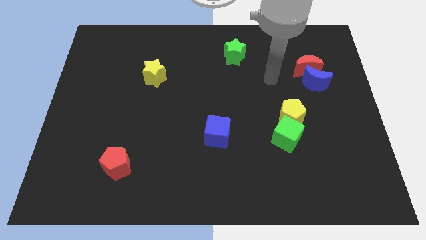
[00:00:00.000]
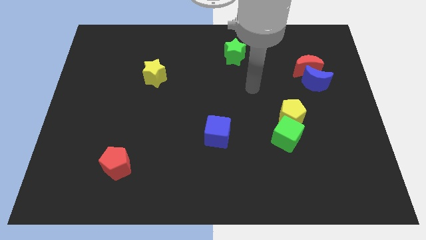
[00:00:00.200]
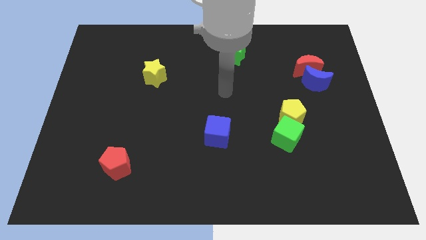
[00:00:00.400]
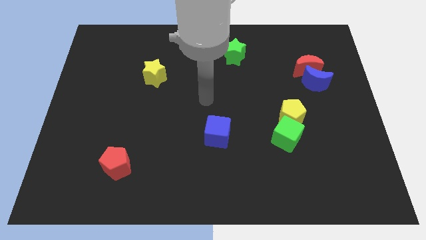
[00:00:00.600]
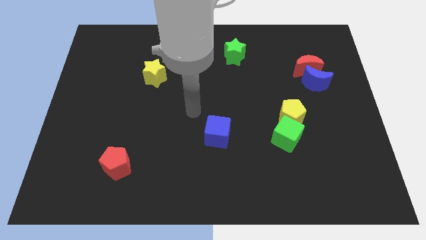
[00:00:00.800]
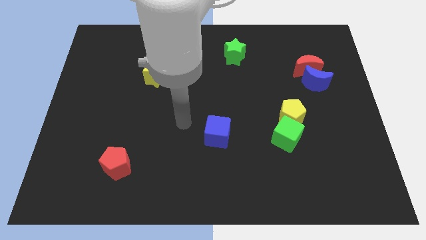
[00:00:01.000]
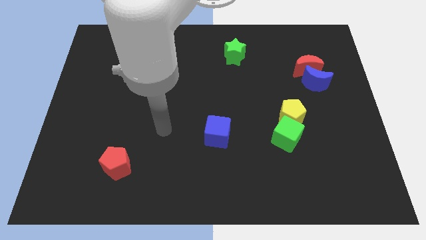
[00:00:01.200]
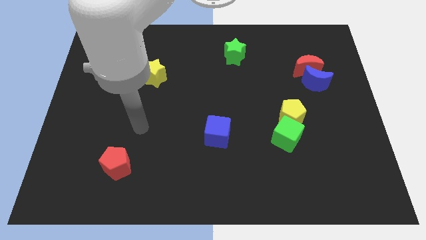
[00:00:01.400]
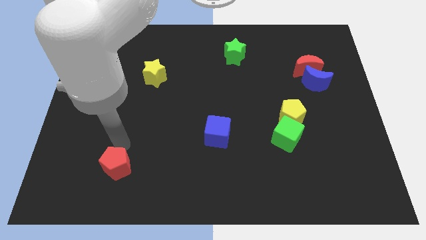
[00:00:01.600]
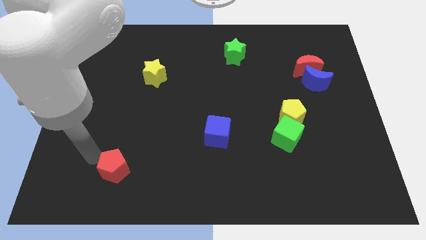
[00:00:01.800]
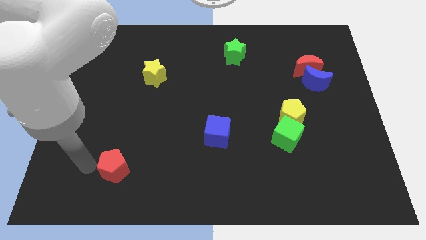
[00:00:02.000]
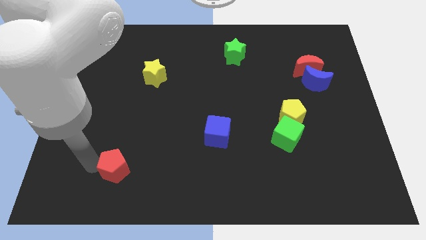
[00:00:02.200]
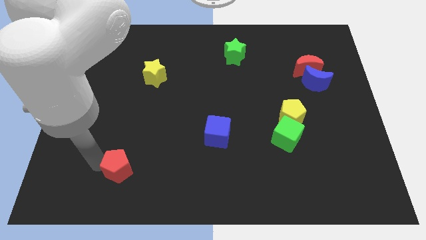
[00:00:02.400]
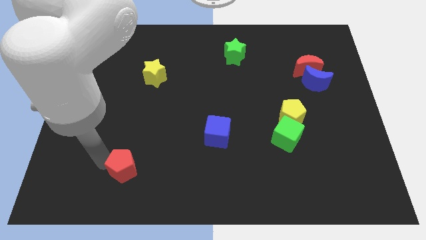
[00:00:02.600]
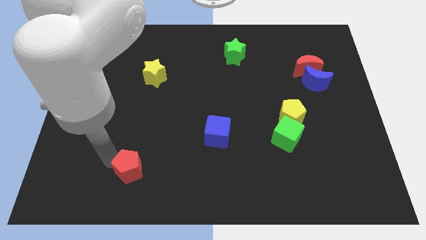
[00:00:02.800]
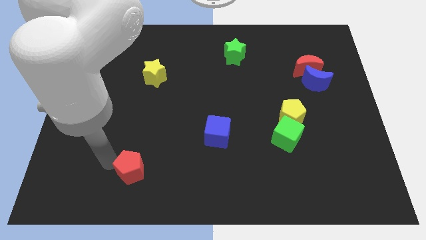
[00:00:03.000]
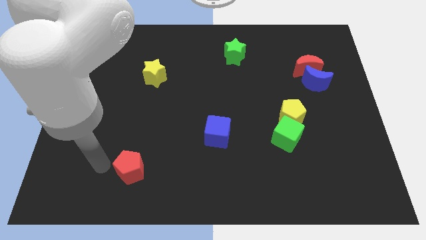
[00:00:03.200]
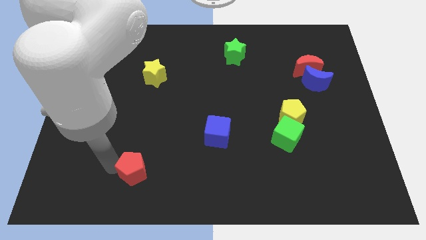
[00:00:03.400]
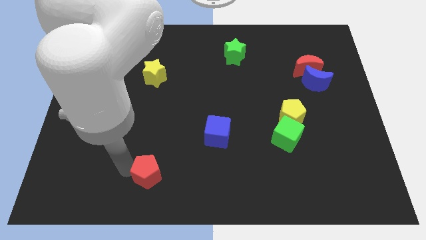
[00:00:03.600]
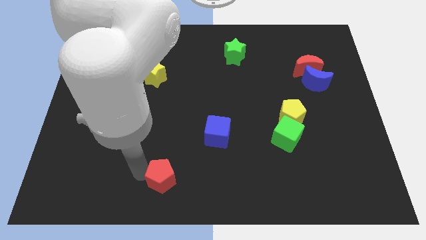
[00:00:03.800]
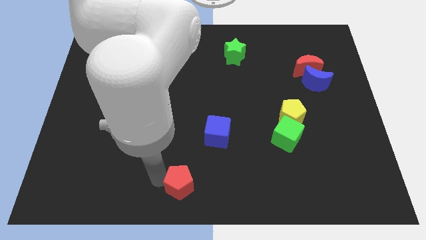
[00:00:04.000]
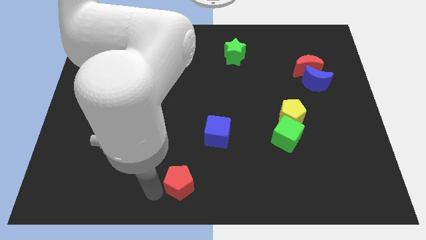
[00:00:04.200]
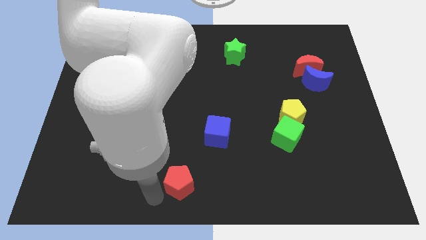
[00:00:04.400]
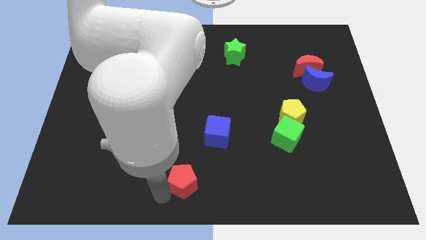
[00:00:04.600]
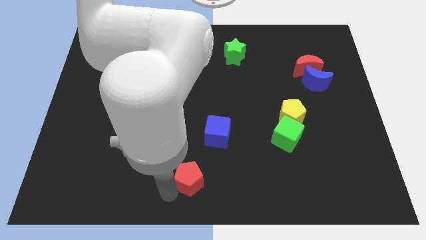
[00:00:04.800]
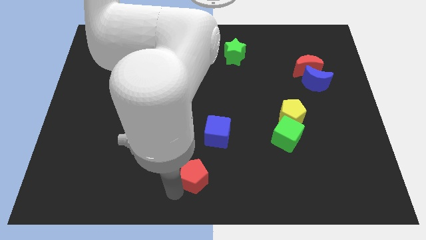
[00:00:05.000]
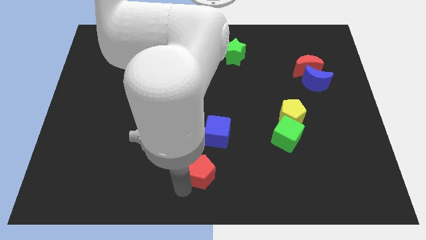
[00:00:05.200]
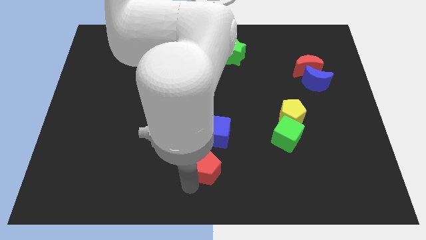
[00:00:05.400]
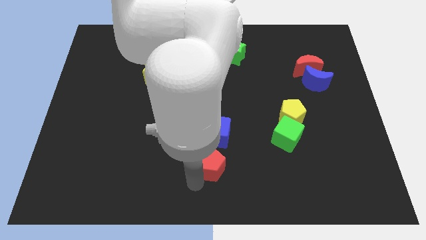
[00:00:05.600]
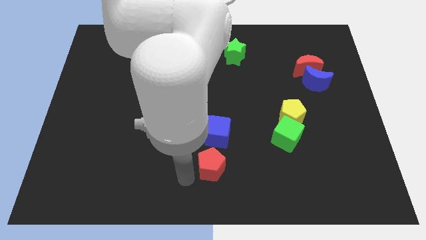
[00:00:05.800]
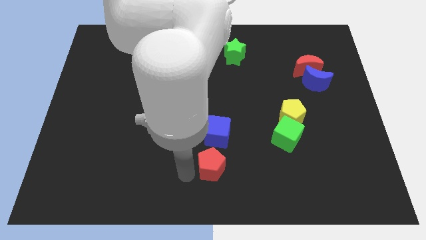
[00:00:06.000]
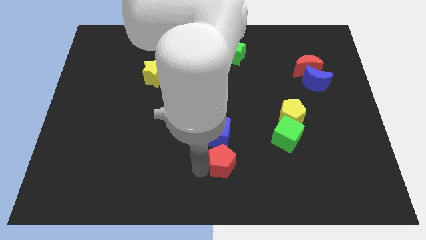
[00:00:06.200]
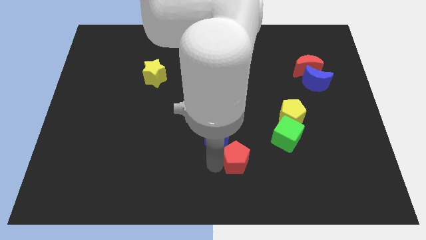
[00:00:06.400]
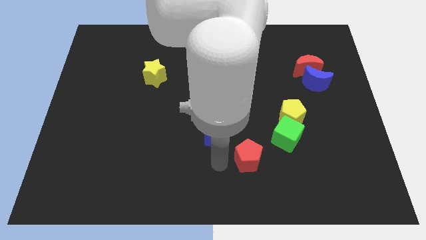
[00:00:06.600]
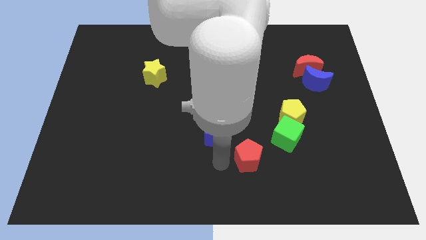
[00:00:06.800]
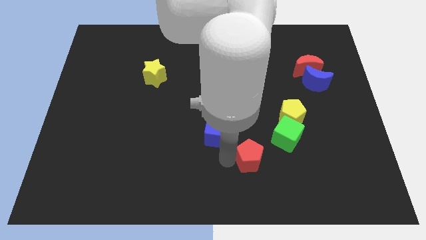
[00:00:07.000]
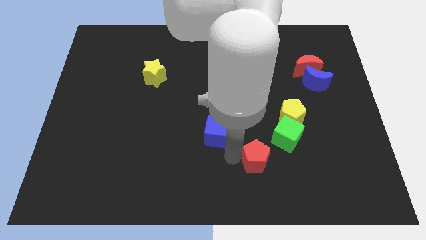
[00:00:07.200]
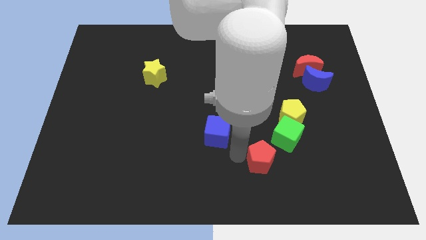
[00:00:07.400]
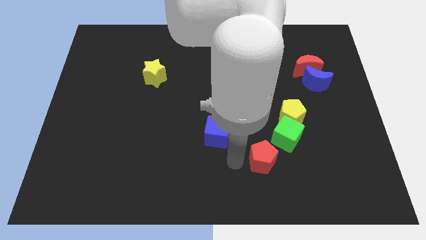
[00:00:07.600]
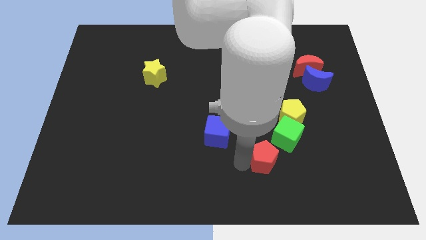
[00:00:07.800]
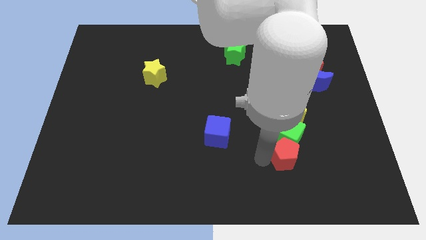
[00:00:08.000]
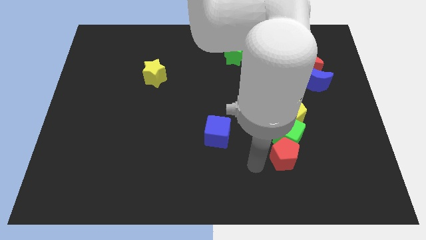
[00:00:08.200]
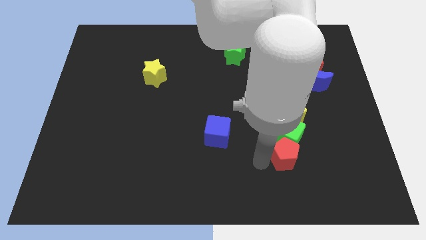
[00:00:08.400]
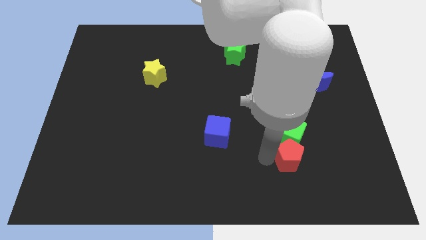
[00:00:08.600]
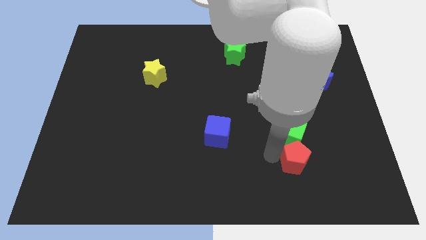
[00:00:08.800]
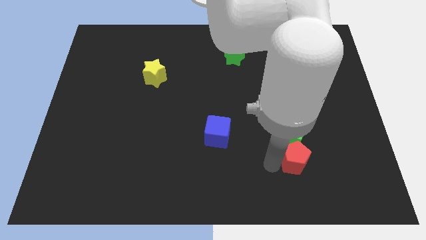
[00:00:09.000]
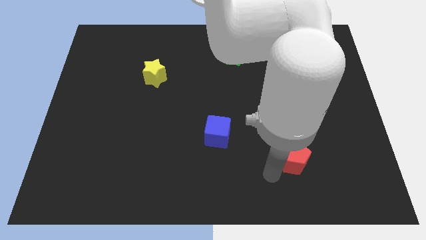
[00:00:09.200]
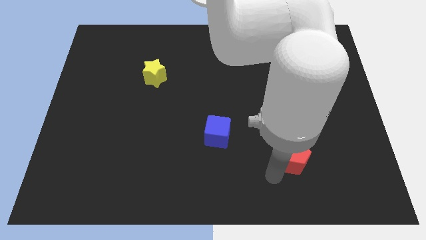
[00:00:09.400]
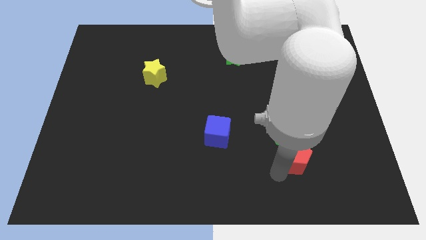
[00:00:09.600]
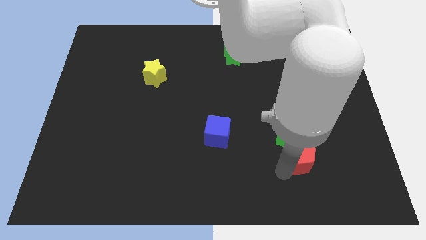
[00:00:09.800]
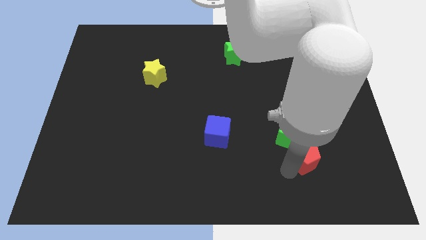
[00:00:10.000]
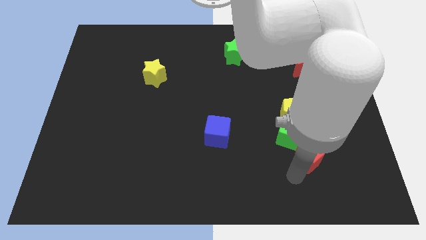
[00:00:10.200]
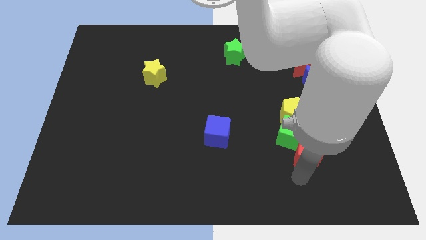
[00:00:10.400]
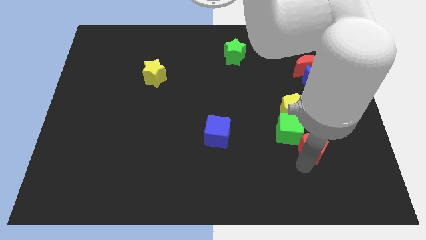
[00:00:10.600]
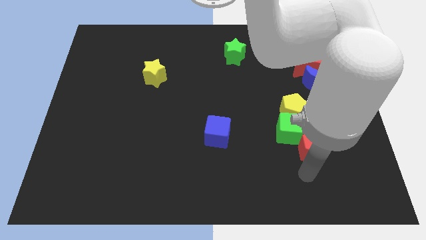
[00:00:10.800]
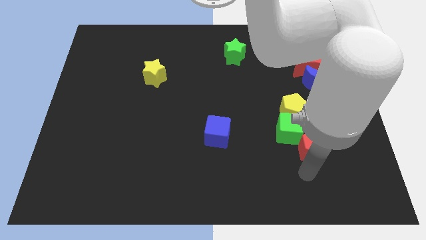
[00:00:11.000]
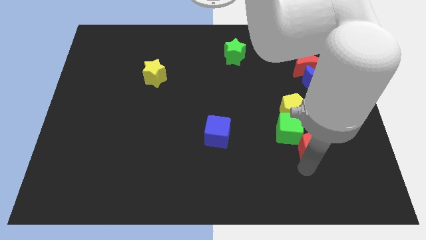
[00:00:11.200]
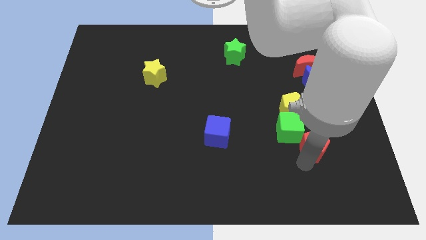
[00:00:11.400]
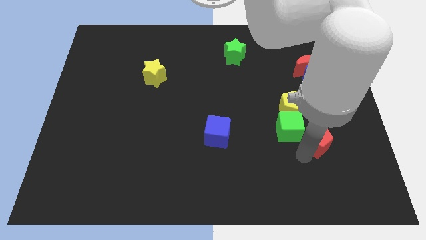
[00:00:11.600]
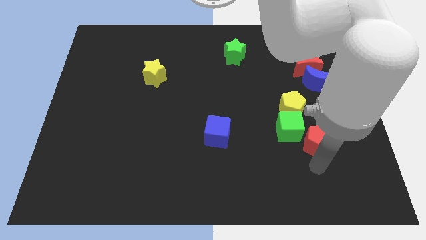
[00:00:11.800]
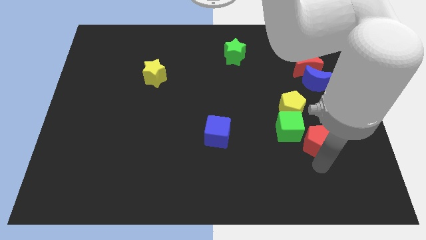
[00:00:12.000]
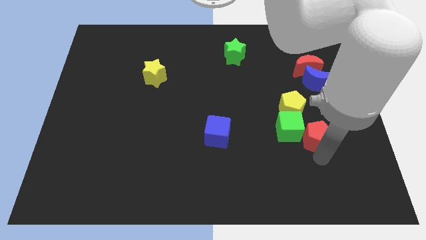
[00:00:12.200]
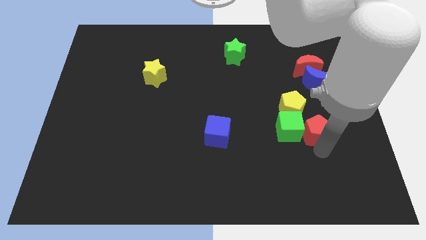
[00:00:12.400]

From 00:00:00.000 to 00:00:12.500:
push the red pentagon to the top right side of the green cube

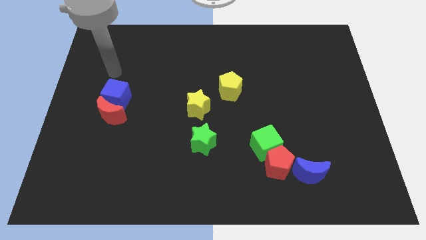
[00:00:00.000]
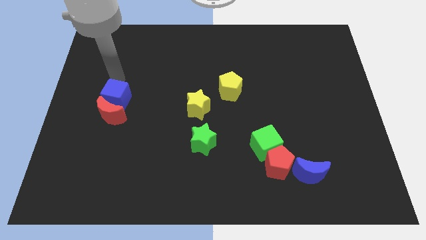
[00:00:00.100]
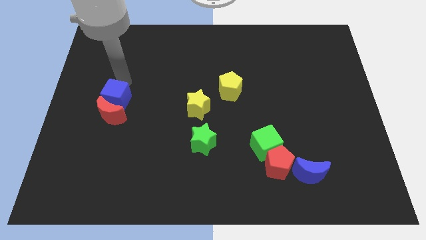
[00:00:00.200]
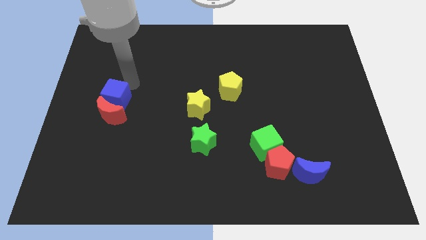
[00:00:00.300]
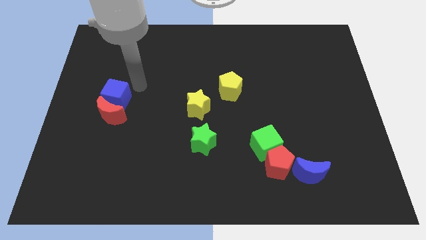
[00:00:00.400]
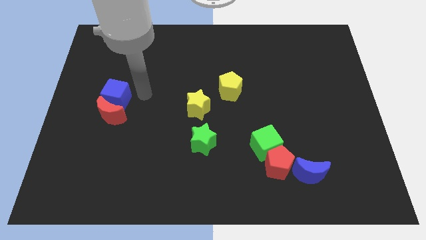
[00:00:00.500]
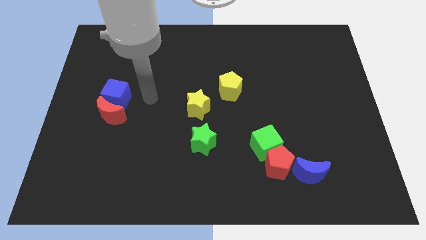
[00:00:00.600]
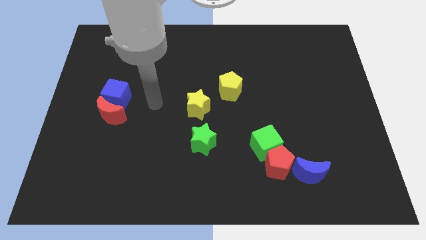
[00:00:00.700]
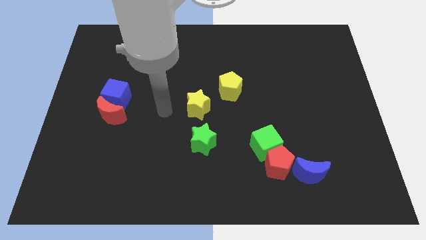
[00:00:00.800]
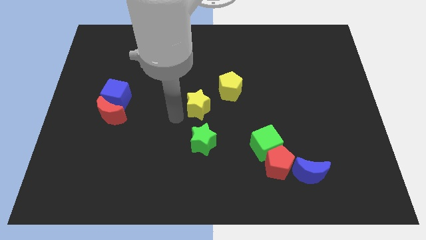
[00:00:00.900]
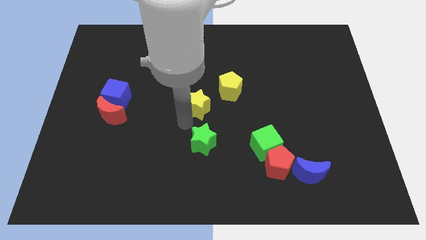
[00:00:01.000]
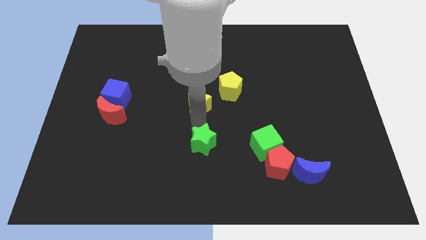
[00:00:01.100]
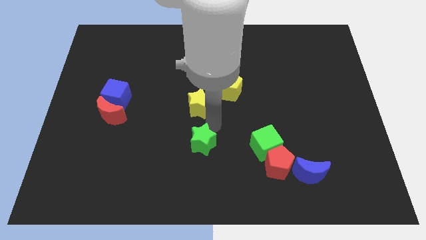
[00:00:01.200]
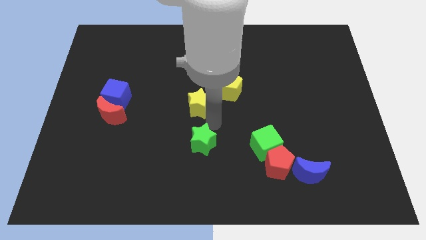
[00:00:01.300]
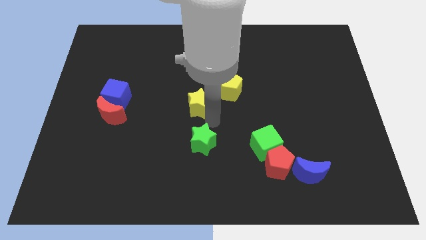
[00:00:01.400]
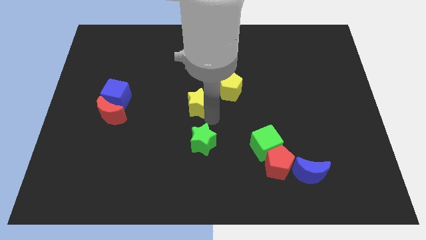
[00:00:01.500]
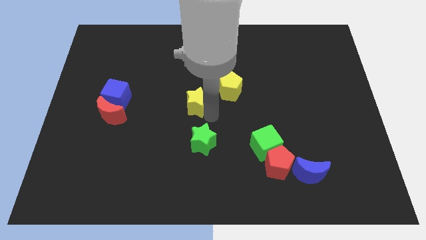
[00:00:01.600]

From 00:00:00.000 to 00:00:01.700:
move the yellow star to the left of the yellow pentagon
